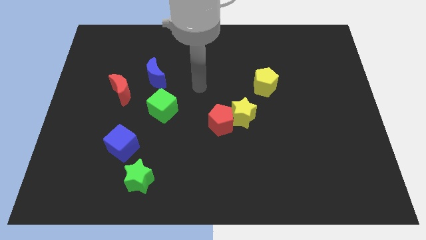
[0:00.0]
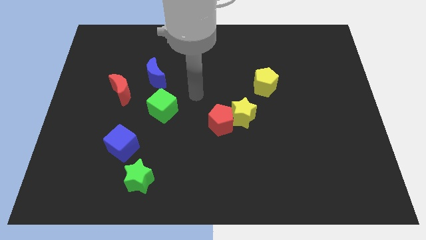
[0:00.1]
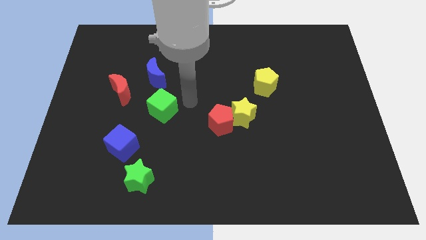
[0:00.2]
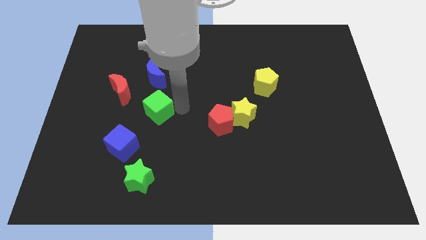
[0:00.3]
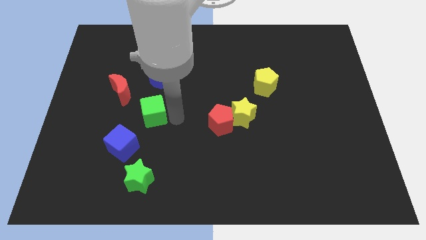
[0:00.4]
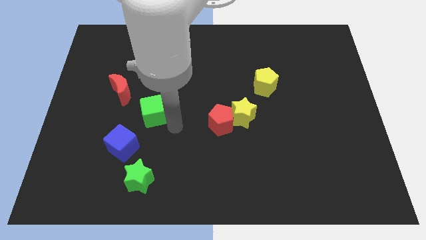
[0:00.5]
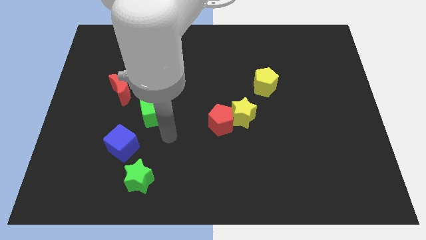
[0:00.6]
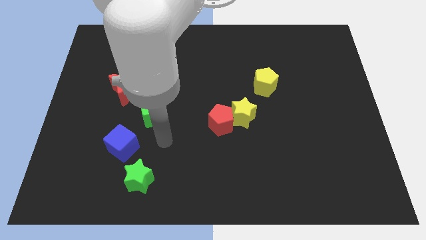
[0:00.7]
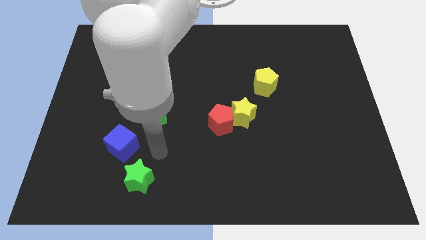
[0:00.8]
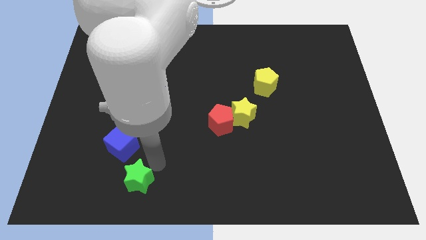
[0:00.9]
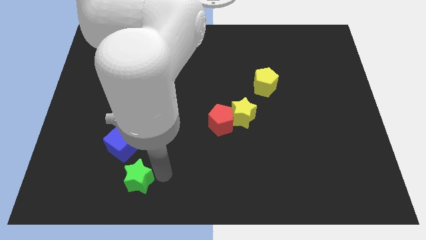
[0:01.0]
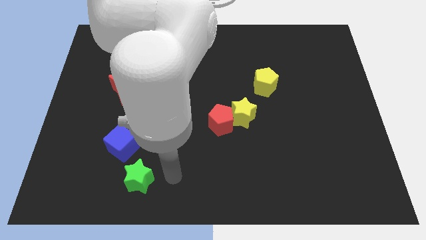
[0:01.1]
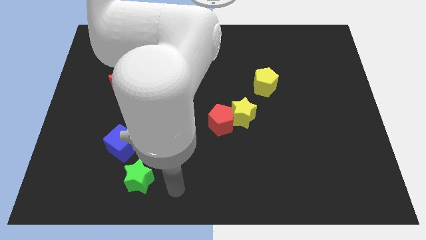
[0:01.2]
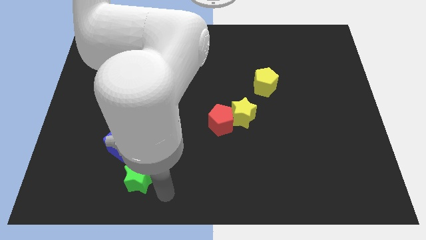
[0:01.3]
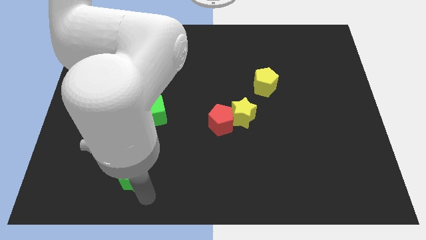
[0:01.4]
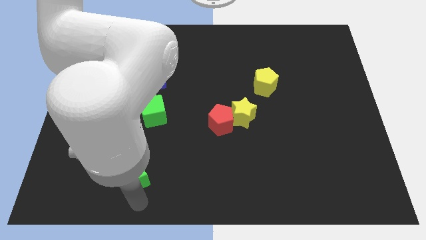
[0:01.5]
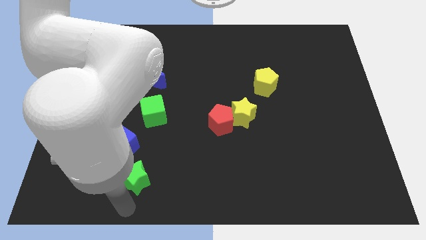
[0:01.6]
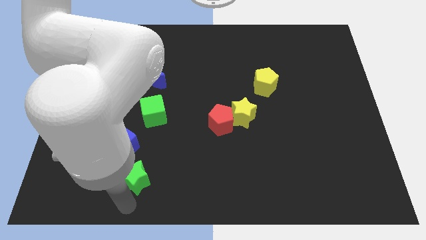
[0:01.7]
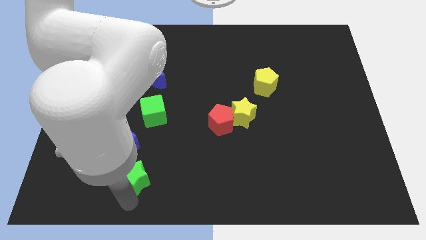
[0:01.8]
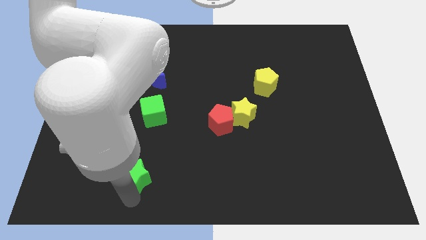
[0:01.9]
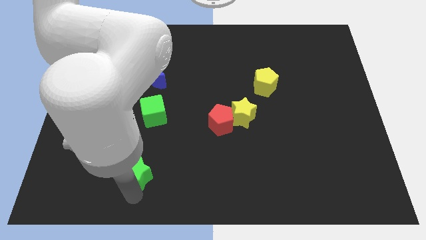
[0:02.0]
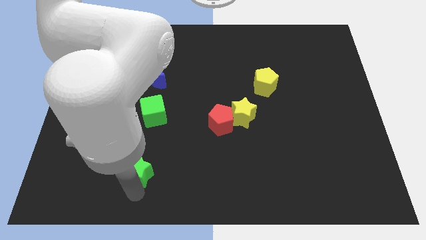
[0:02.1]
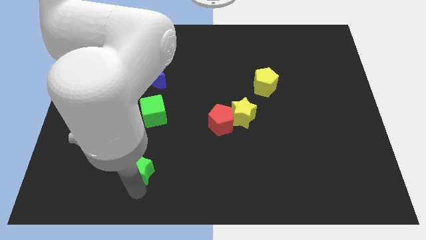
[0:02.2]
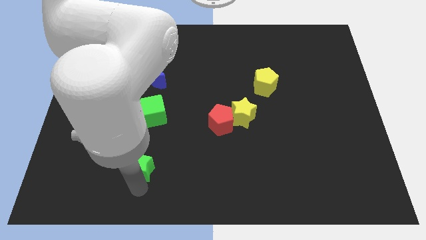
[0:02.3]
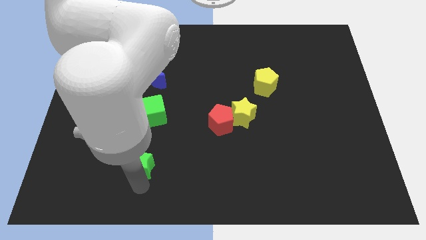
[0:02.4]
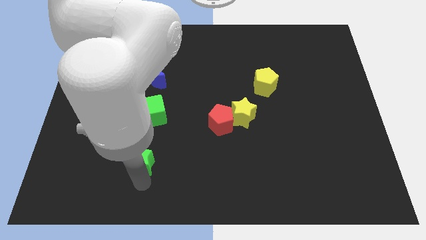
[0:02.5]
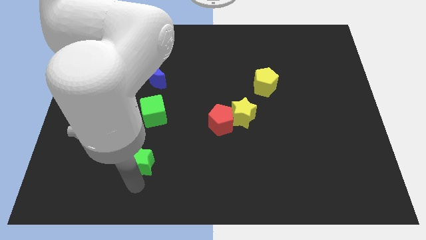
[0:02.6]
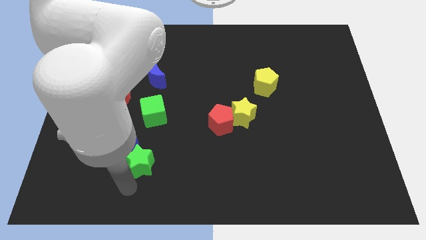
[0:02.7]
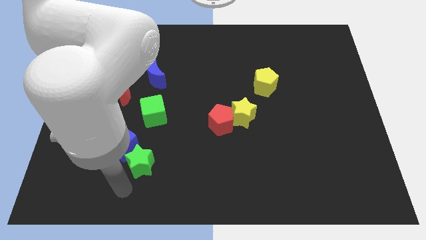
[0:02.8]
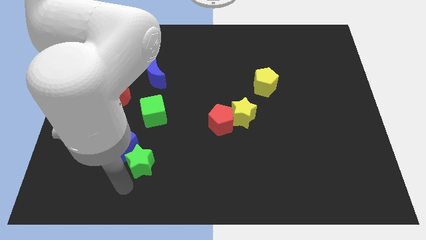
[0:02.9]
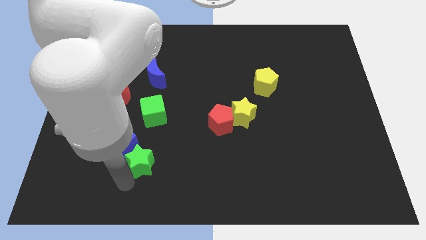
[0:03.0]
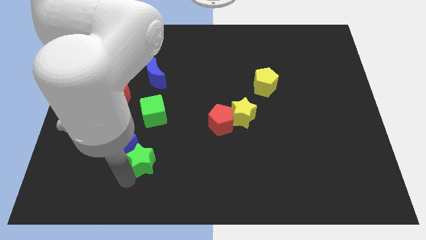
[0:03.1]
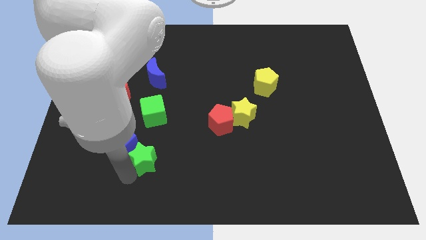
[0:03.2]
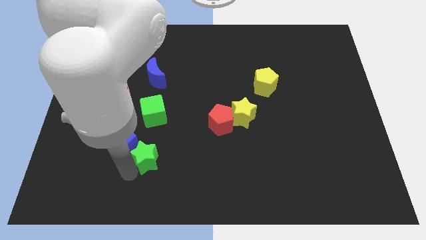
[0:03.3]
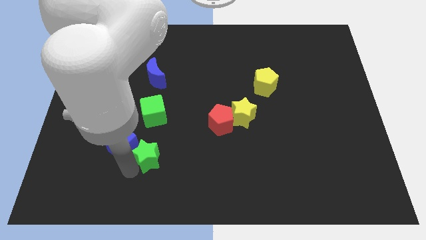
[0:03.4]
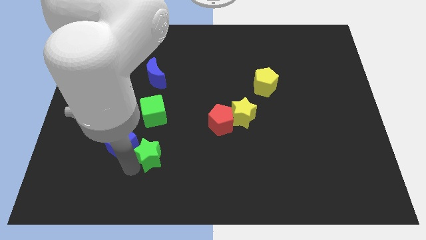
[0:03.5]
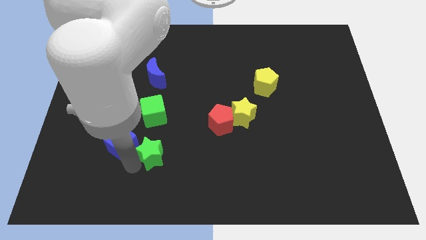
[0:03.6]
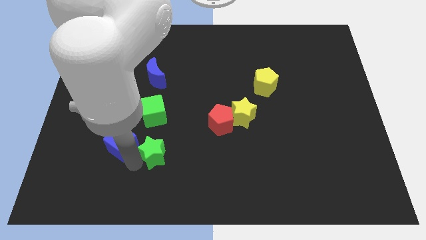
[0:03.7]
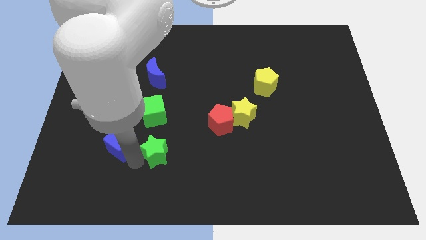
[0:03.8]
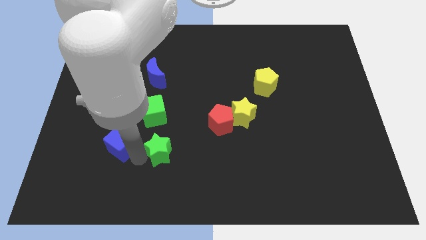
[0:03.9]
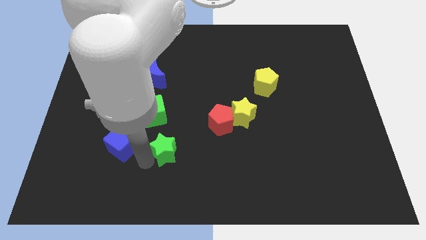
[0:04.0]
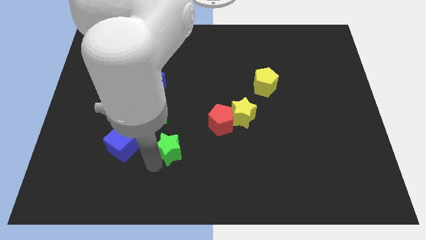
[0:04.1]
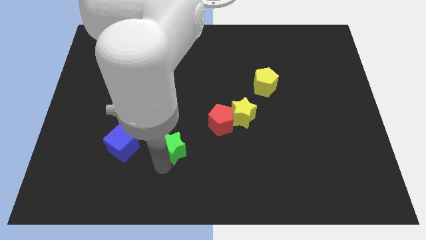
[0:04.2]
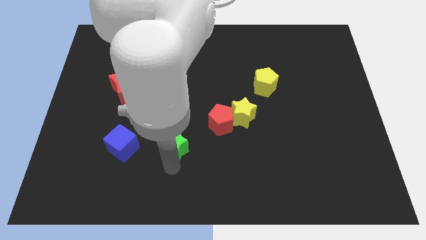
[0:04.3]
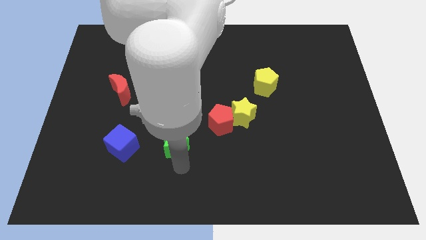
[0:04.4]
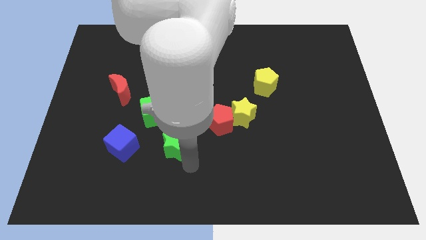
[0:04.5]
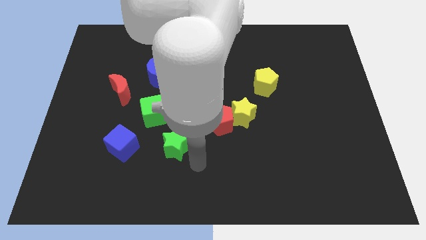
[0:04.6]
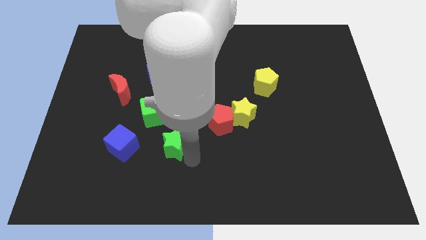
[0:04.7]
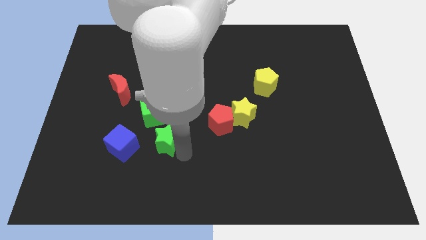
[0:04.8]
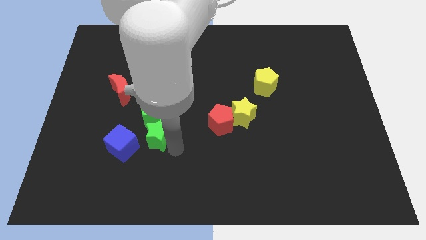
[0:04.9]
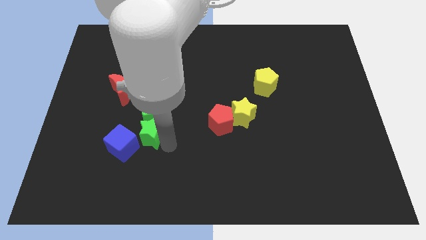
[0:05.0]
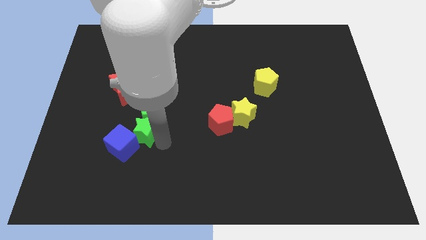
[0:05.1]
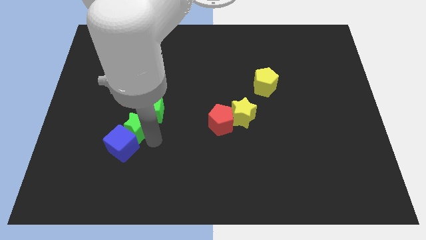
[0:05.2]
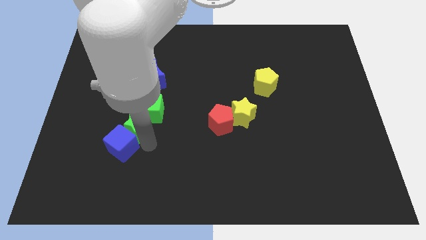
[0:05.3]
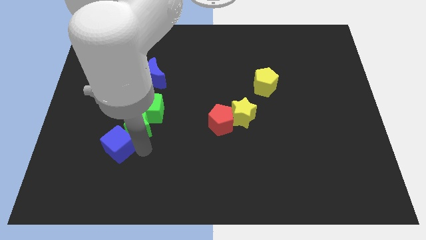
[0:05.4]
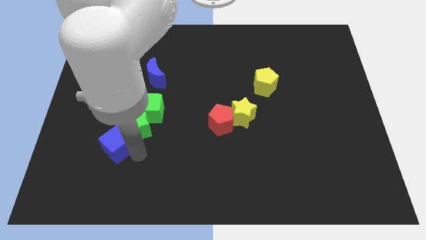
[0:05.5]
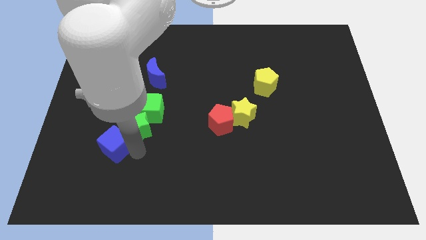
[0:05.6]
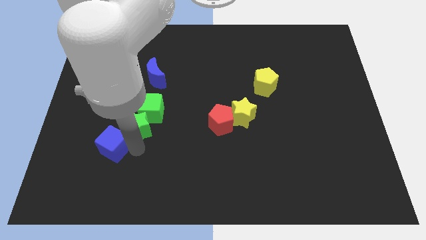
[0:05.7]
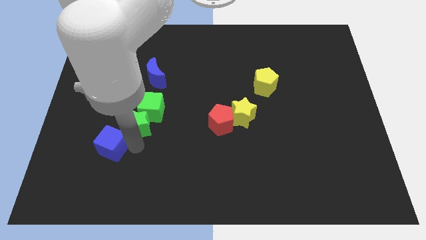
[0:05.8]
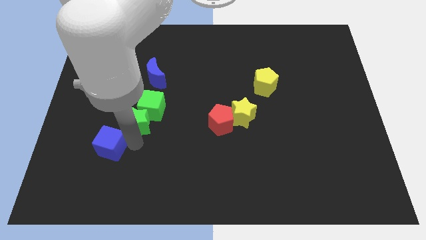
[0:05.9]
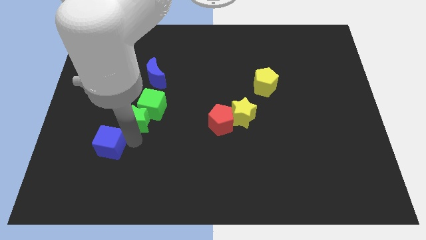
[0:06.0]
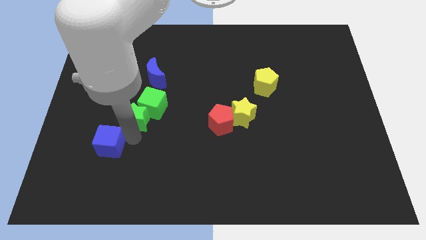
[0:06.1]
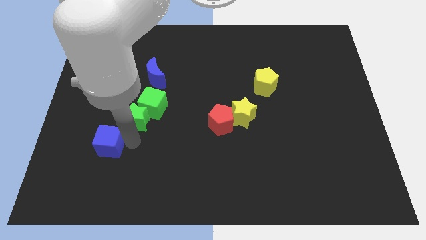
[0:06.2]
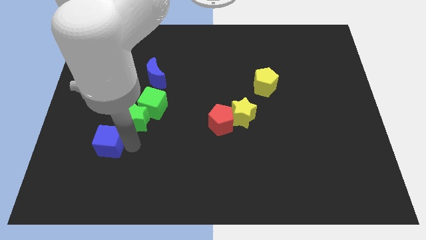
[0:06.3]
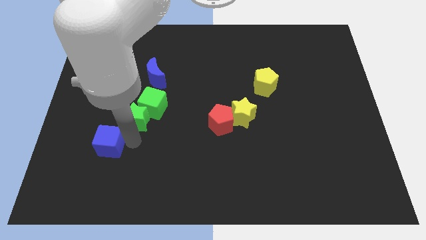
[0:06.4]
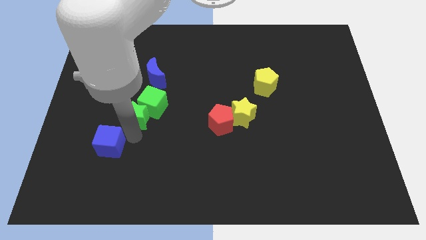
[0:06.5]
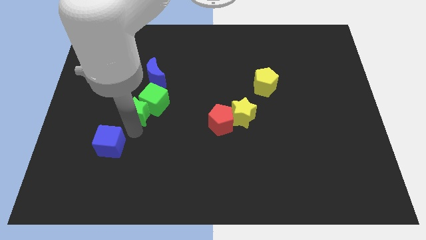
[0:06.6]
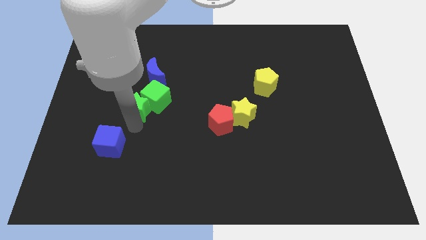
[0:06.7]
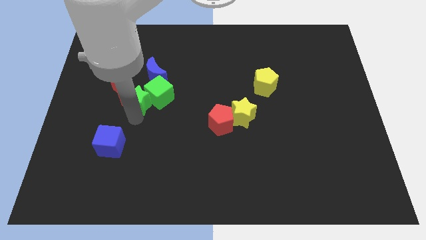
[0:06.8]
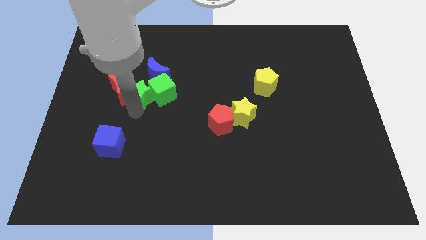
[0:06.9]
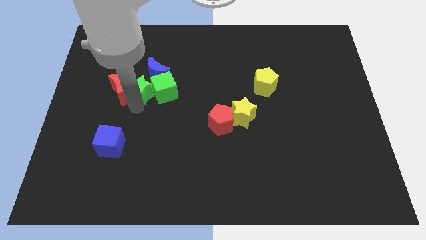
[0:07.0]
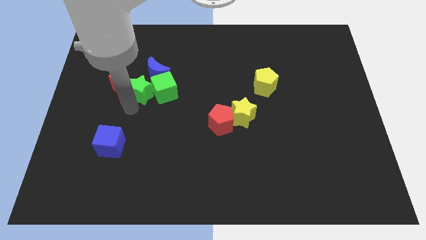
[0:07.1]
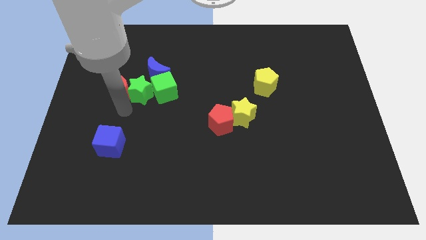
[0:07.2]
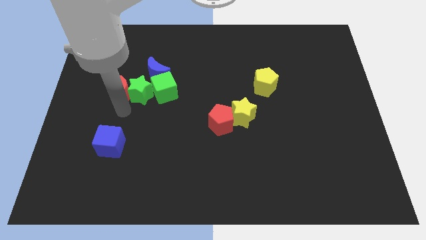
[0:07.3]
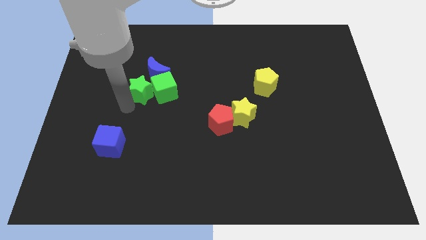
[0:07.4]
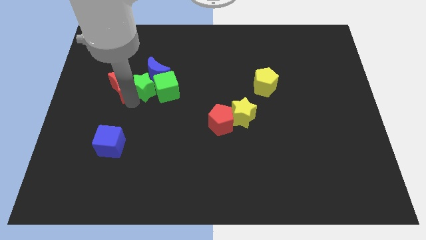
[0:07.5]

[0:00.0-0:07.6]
put the green star next to the blue moon
